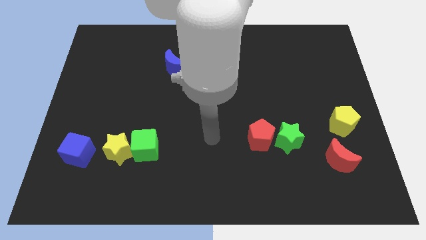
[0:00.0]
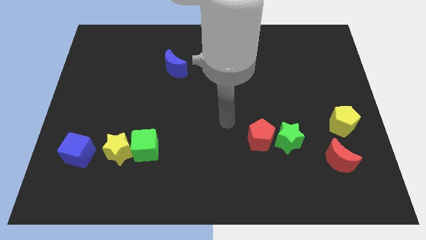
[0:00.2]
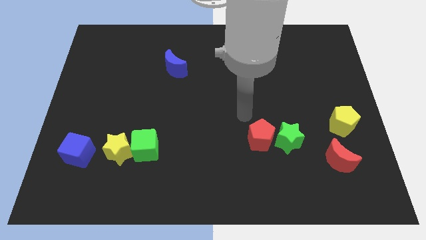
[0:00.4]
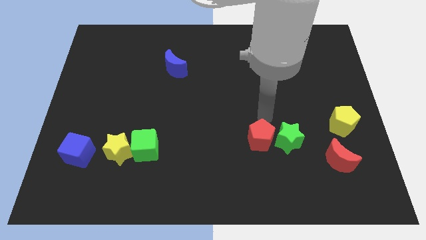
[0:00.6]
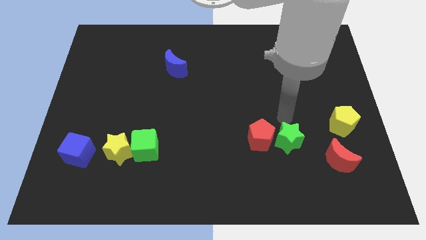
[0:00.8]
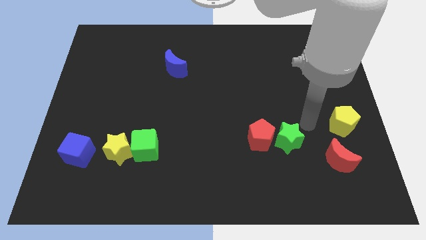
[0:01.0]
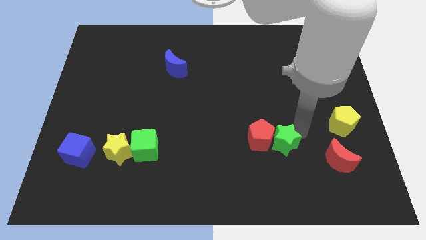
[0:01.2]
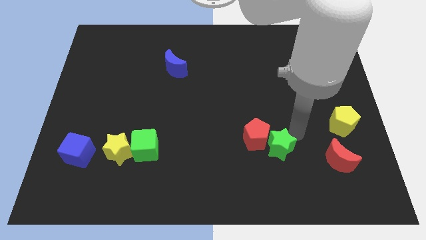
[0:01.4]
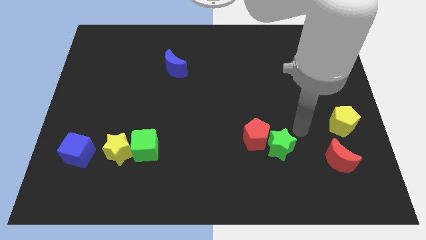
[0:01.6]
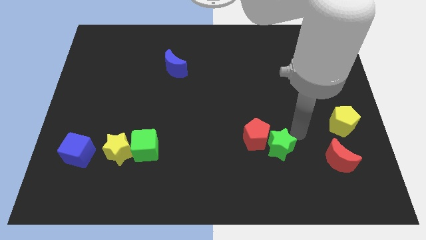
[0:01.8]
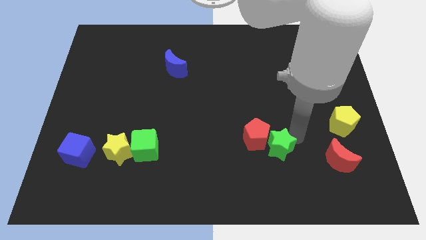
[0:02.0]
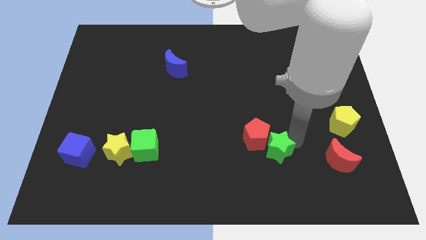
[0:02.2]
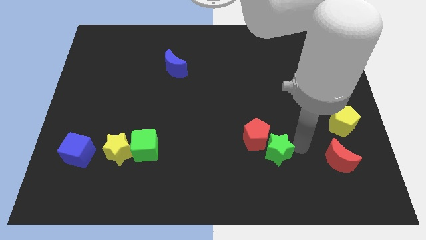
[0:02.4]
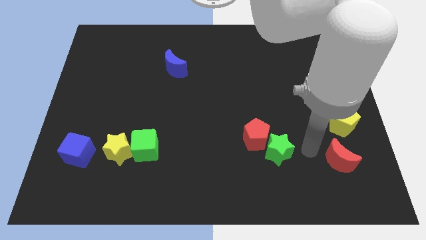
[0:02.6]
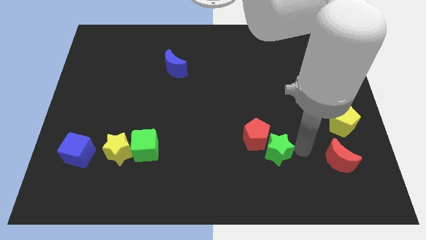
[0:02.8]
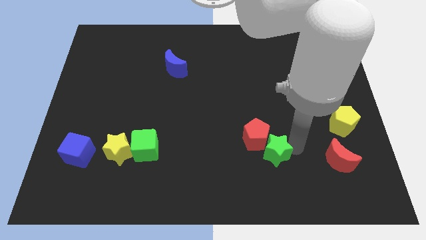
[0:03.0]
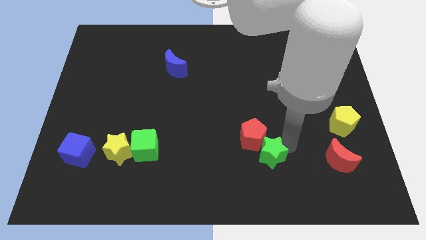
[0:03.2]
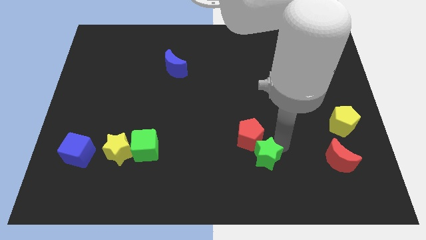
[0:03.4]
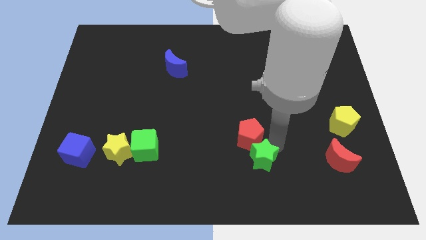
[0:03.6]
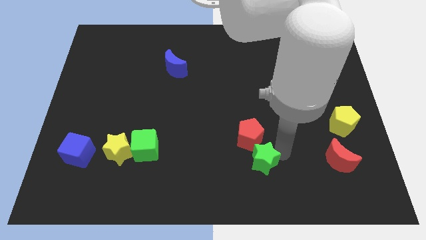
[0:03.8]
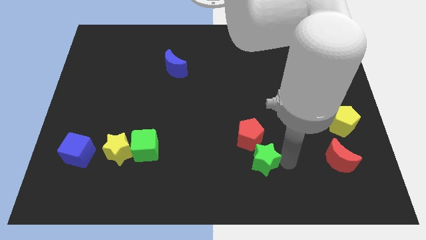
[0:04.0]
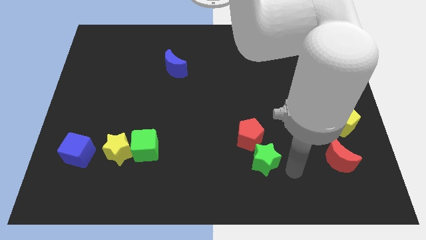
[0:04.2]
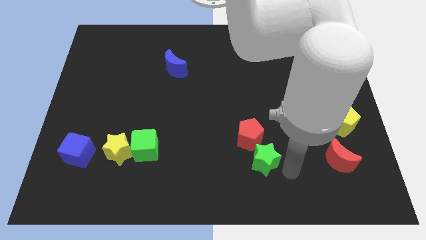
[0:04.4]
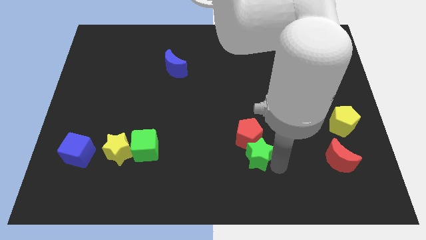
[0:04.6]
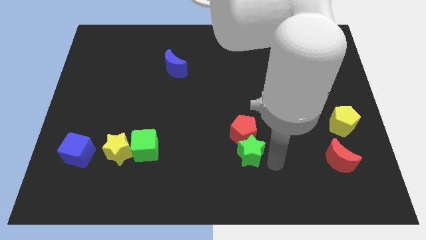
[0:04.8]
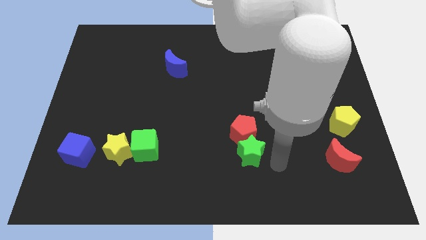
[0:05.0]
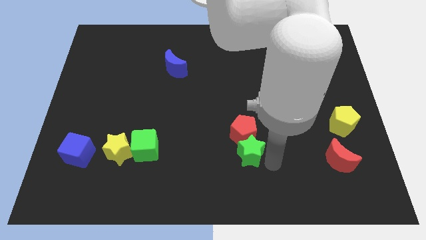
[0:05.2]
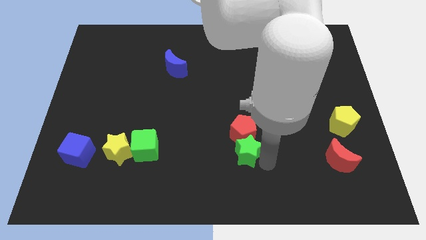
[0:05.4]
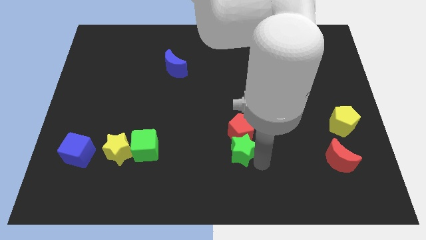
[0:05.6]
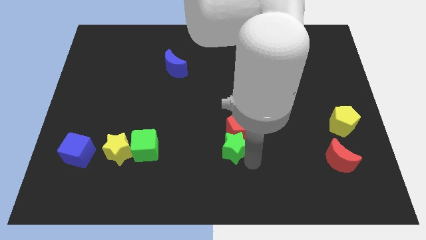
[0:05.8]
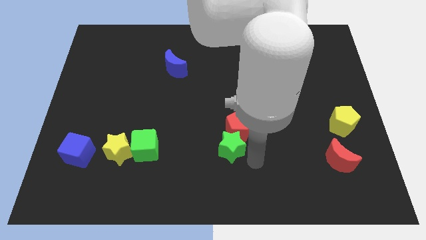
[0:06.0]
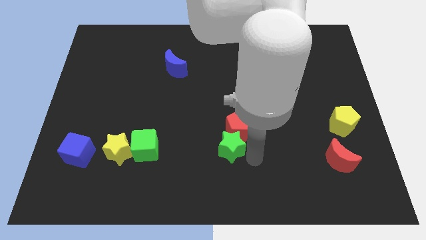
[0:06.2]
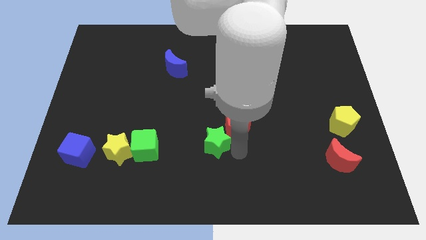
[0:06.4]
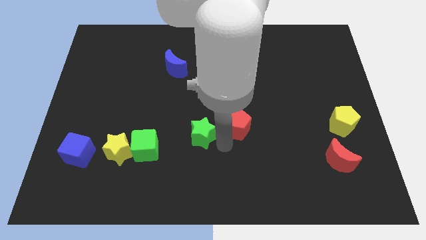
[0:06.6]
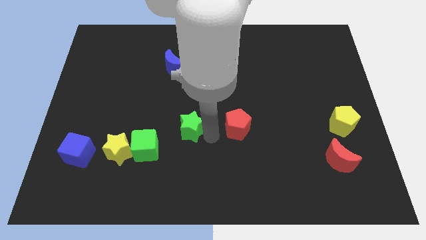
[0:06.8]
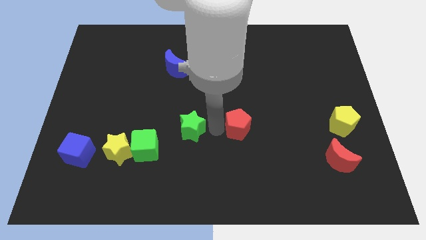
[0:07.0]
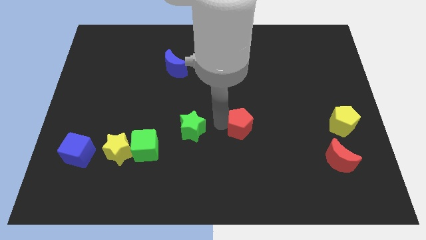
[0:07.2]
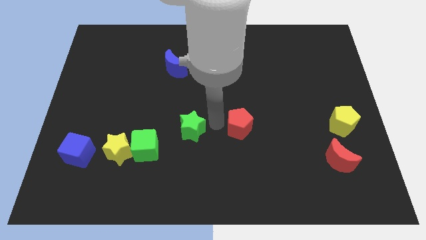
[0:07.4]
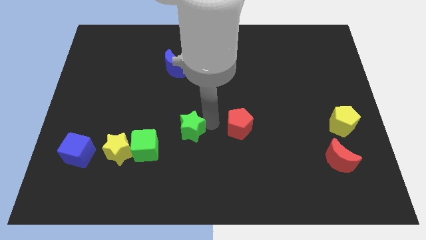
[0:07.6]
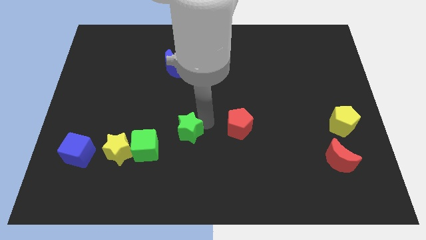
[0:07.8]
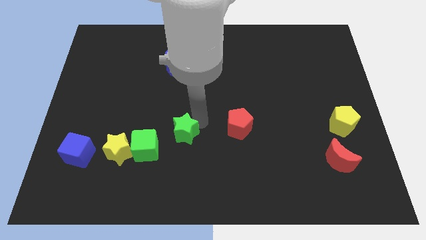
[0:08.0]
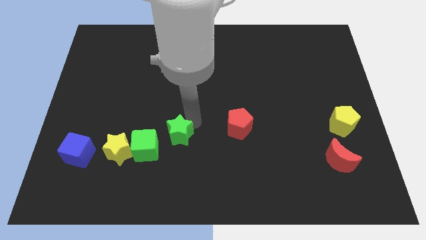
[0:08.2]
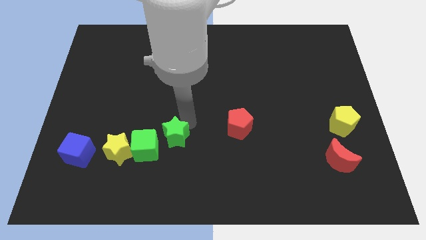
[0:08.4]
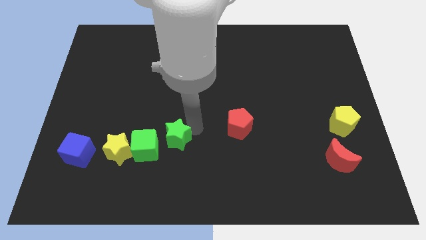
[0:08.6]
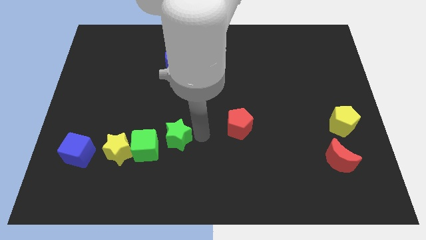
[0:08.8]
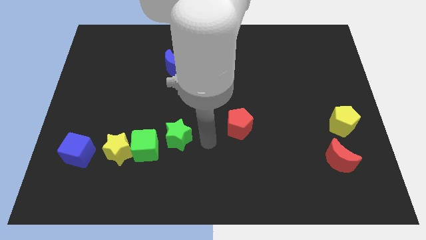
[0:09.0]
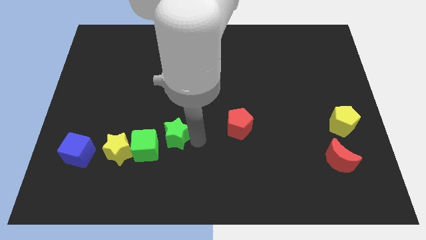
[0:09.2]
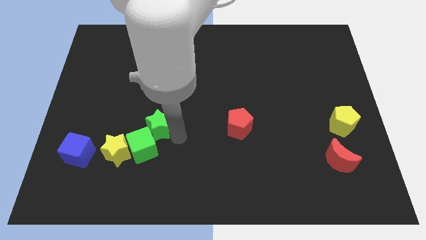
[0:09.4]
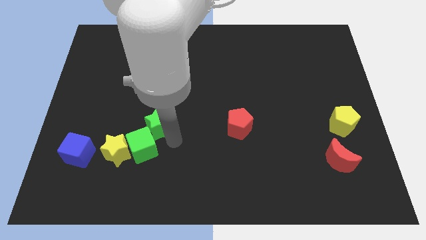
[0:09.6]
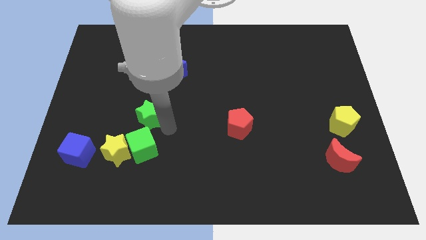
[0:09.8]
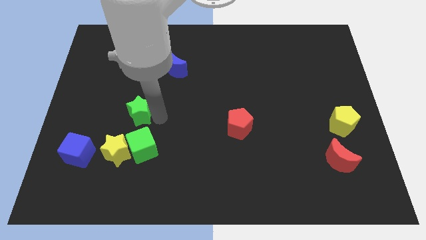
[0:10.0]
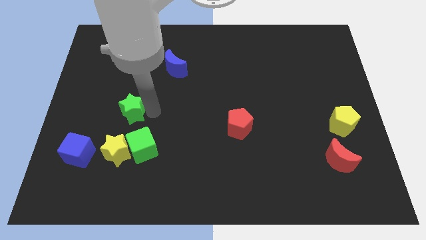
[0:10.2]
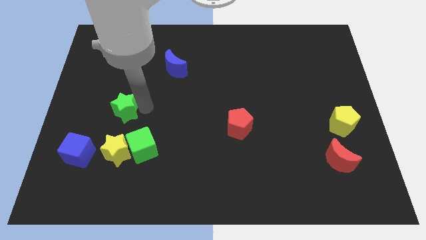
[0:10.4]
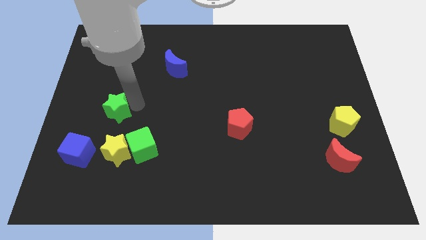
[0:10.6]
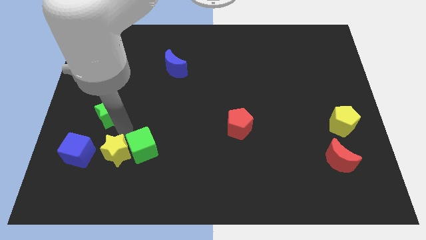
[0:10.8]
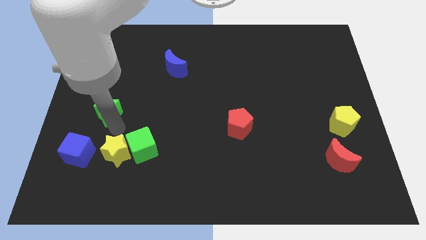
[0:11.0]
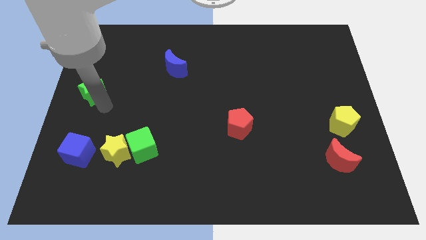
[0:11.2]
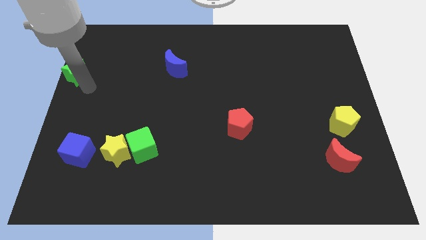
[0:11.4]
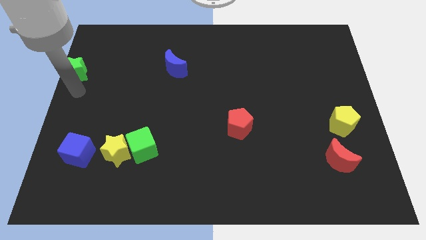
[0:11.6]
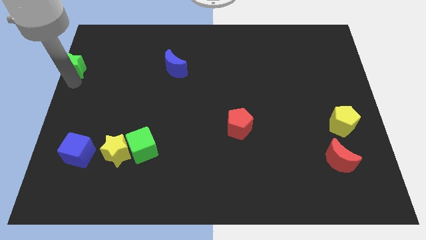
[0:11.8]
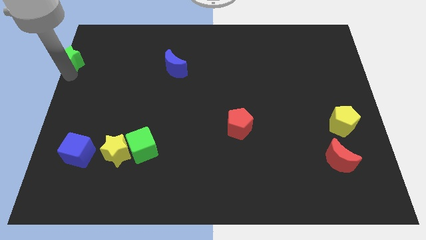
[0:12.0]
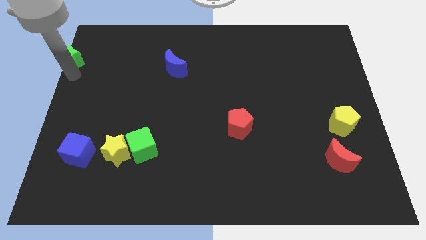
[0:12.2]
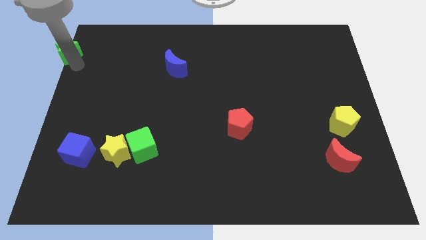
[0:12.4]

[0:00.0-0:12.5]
put the green star to the top left of the board
